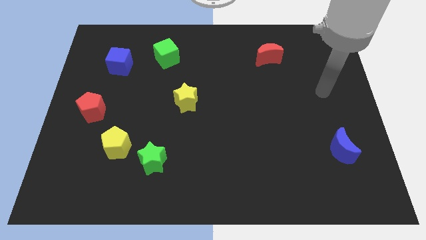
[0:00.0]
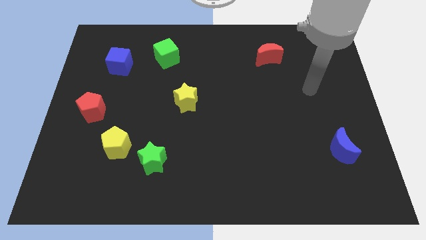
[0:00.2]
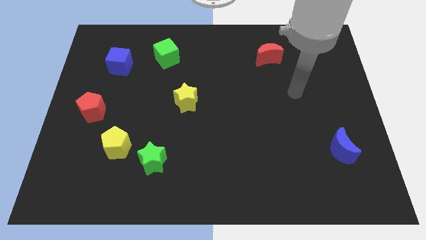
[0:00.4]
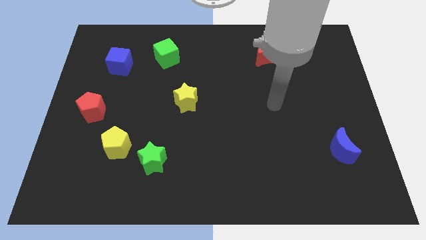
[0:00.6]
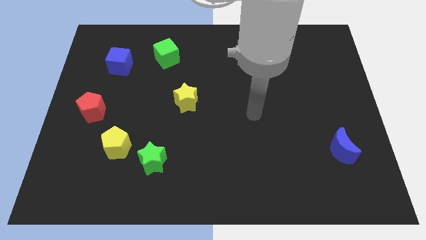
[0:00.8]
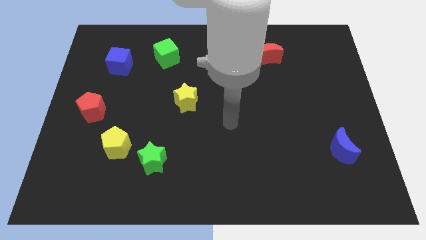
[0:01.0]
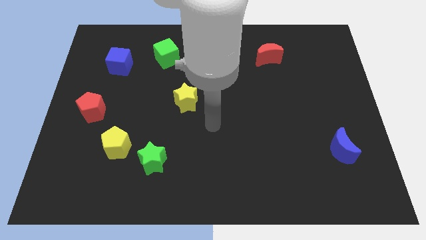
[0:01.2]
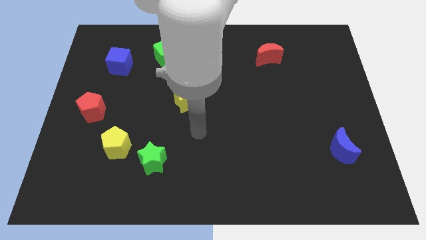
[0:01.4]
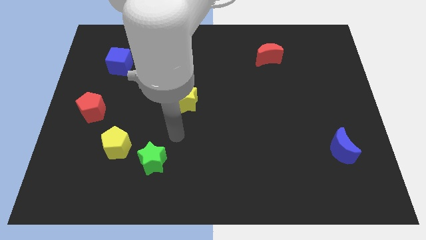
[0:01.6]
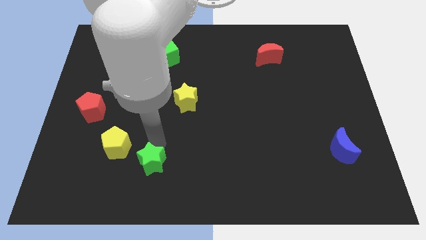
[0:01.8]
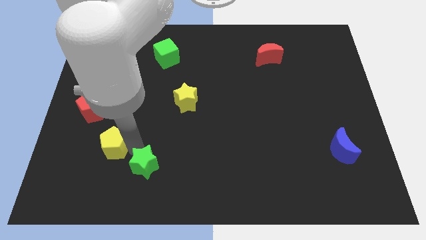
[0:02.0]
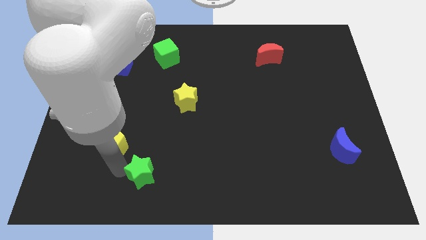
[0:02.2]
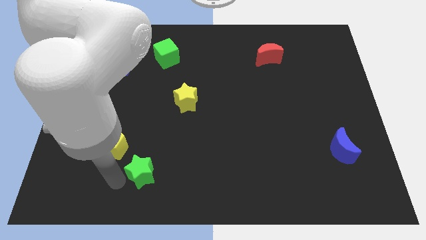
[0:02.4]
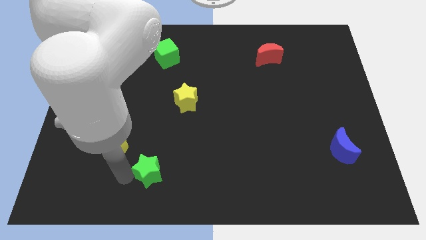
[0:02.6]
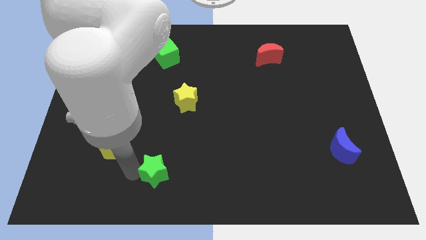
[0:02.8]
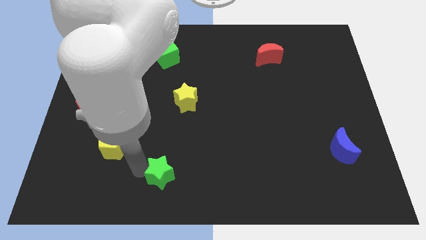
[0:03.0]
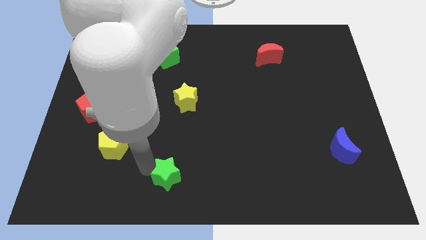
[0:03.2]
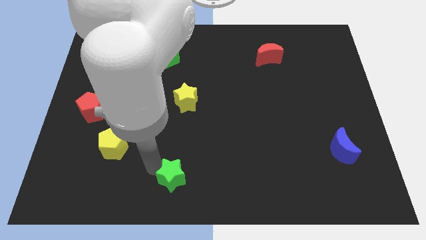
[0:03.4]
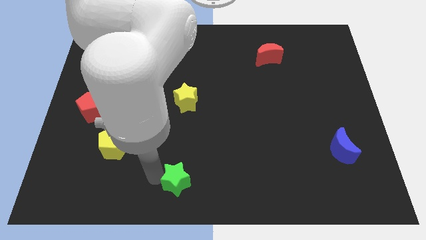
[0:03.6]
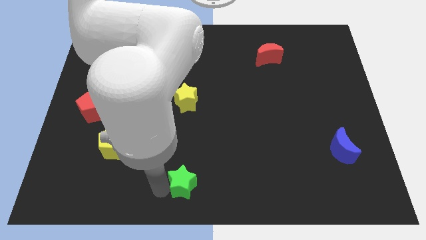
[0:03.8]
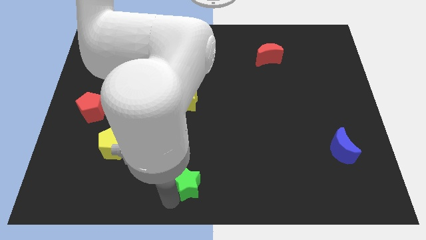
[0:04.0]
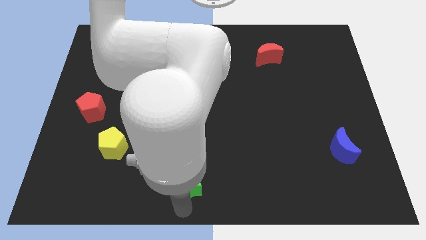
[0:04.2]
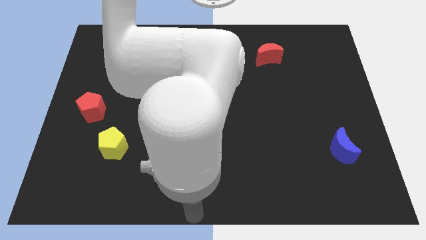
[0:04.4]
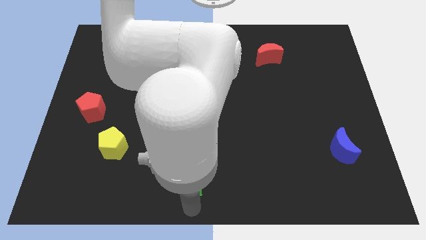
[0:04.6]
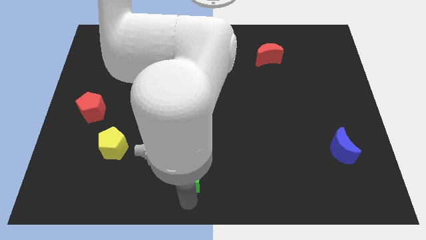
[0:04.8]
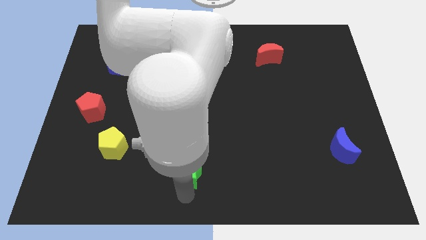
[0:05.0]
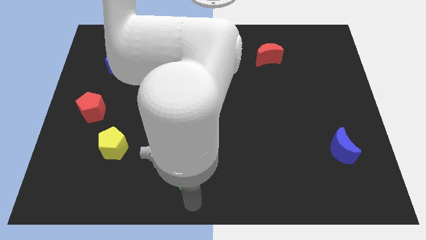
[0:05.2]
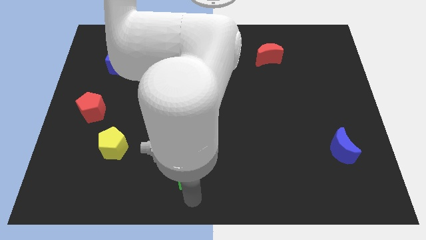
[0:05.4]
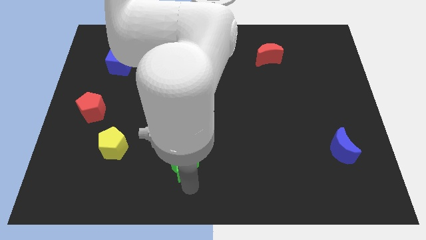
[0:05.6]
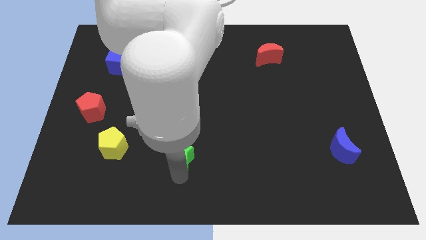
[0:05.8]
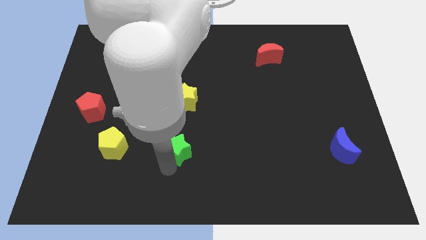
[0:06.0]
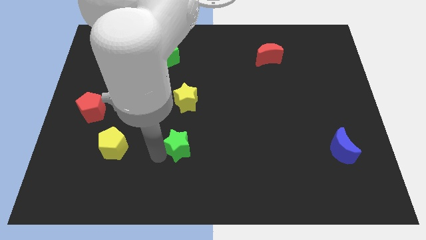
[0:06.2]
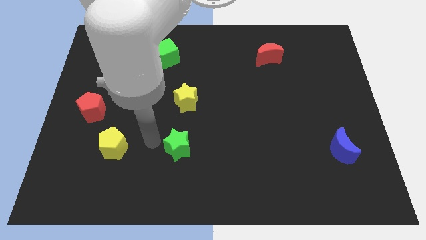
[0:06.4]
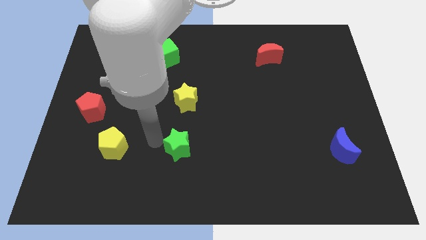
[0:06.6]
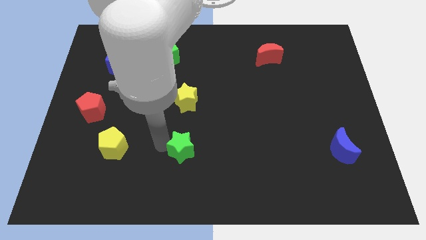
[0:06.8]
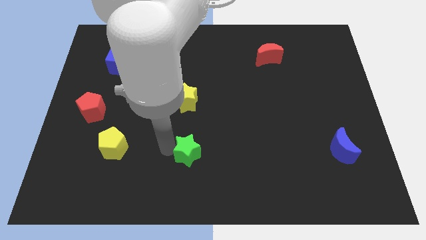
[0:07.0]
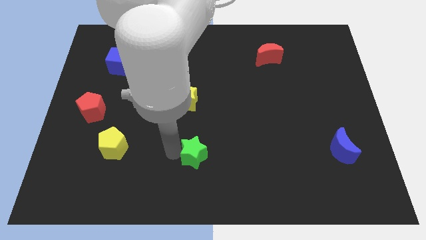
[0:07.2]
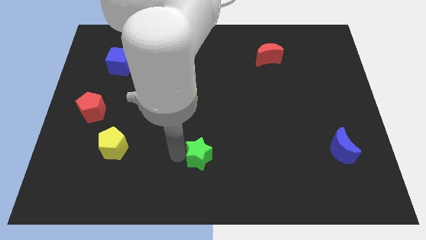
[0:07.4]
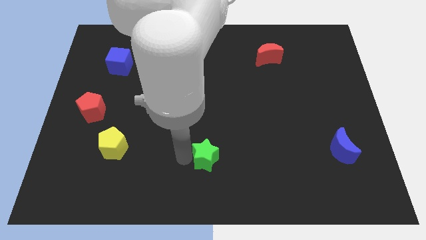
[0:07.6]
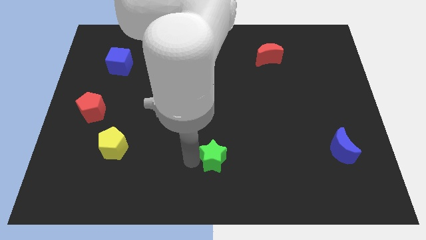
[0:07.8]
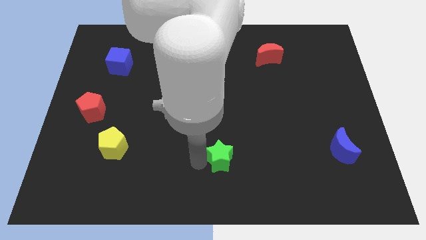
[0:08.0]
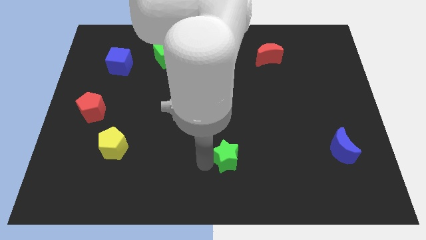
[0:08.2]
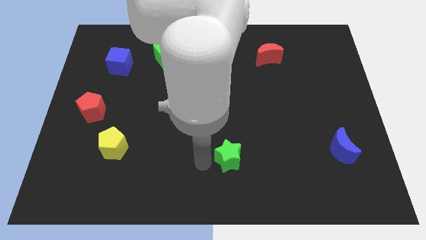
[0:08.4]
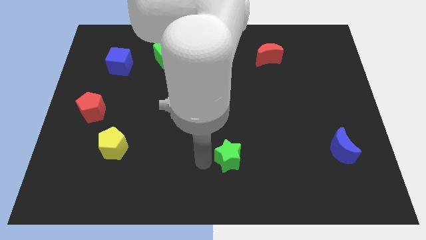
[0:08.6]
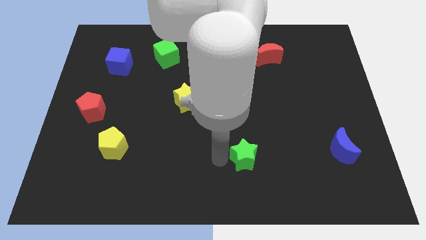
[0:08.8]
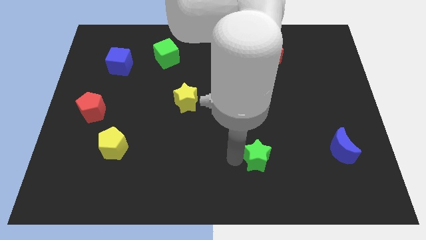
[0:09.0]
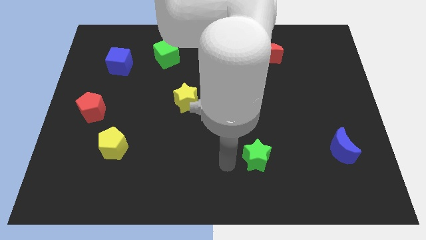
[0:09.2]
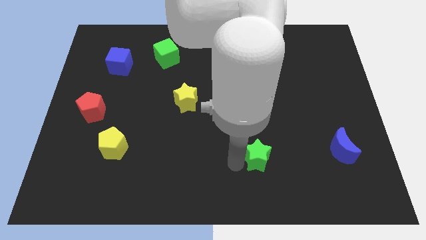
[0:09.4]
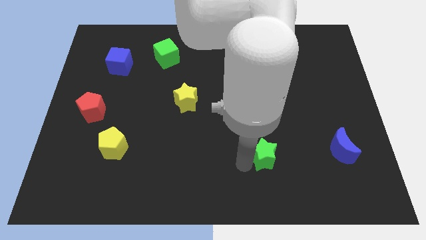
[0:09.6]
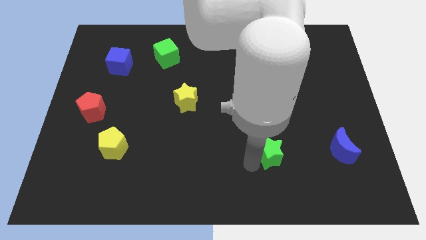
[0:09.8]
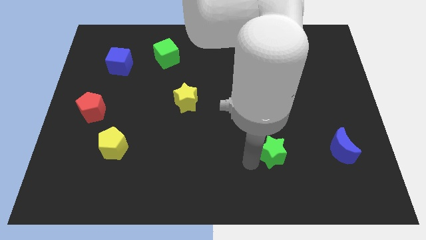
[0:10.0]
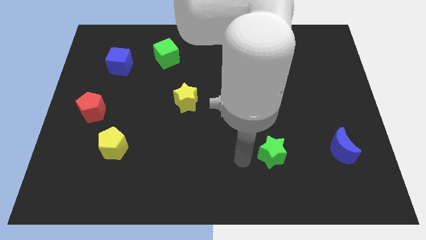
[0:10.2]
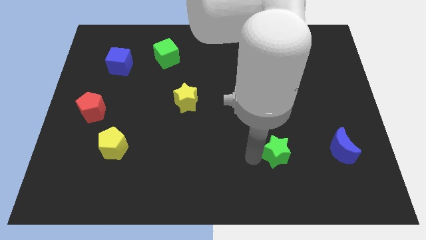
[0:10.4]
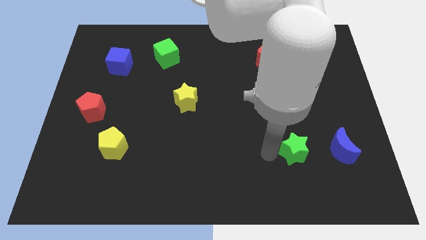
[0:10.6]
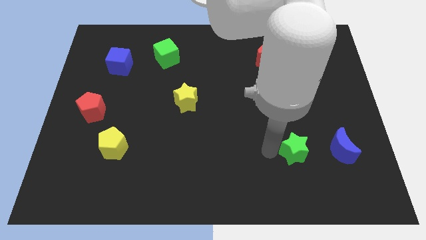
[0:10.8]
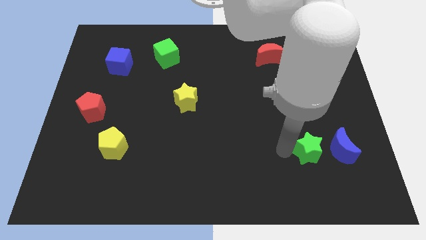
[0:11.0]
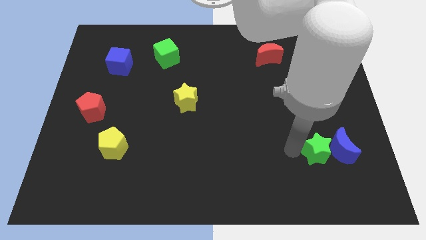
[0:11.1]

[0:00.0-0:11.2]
move the green star towards the blue moon

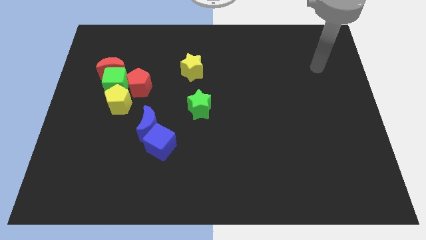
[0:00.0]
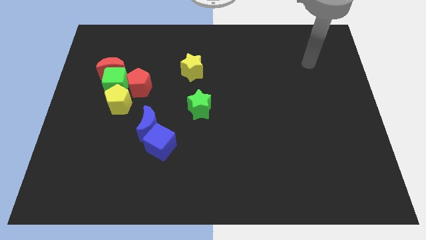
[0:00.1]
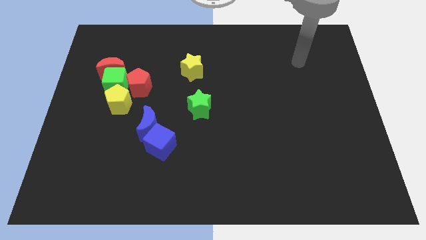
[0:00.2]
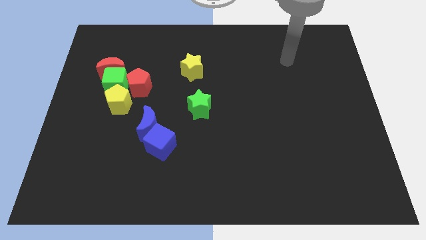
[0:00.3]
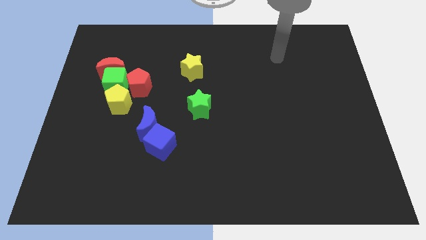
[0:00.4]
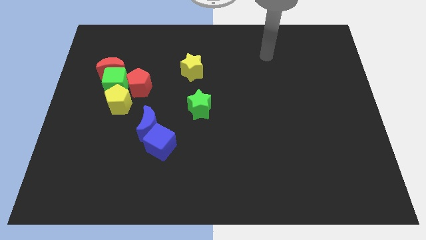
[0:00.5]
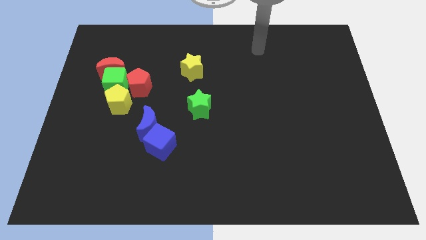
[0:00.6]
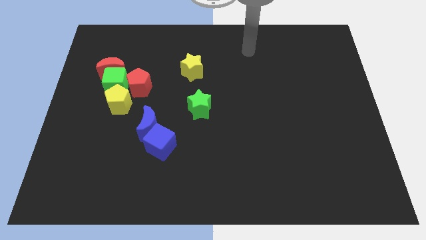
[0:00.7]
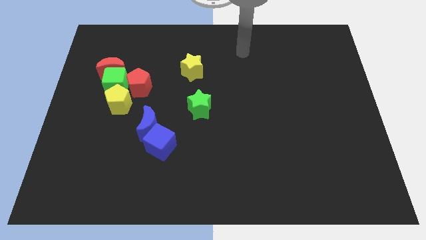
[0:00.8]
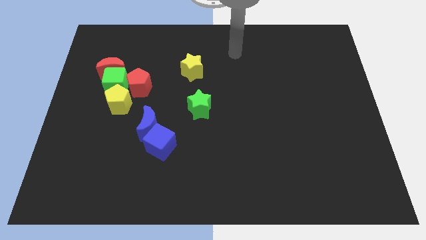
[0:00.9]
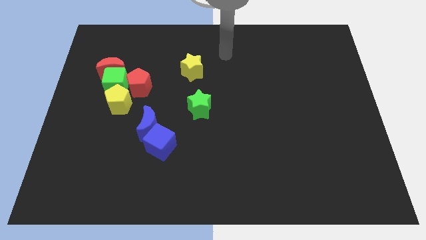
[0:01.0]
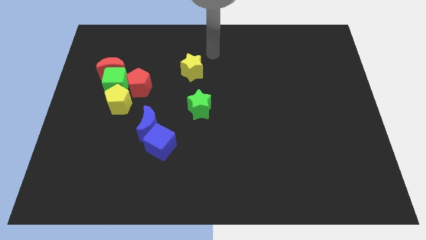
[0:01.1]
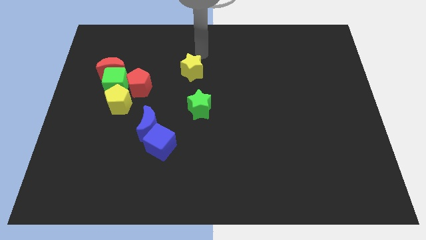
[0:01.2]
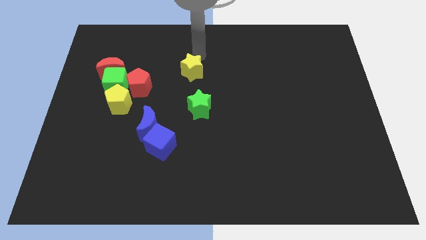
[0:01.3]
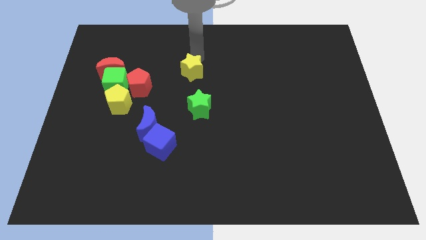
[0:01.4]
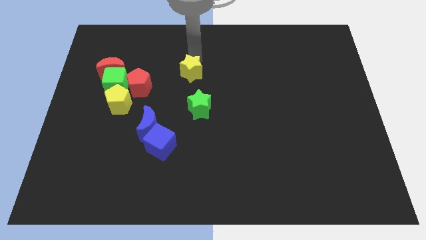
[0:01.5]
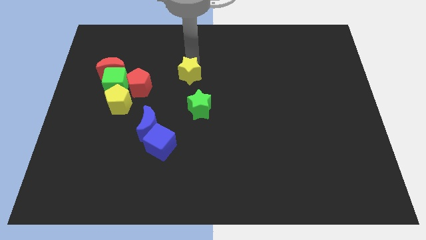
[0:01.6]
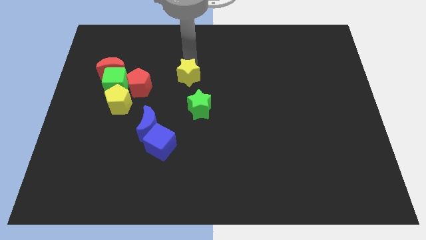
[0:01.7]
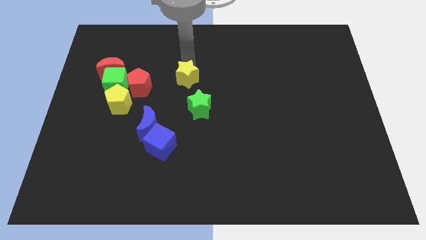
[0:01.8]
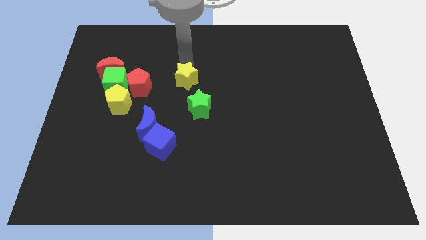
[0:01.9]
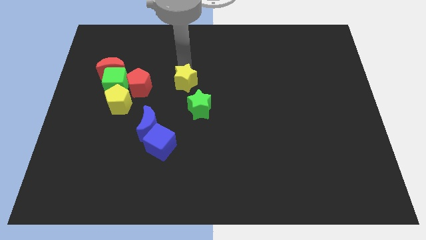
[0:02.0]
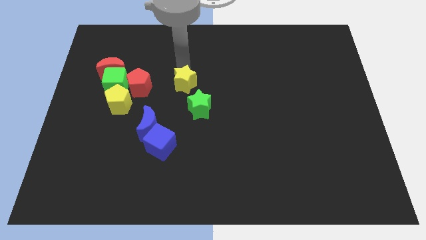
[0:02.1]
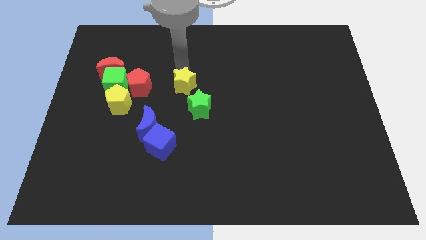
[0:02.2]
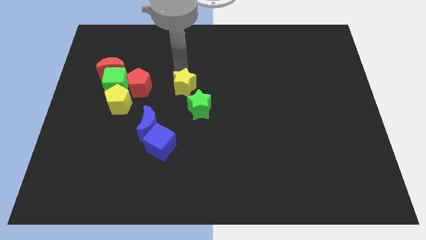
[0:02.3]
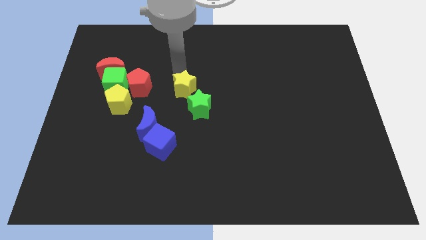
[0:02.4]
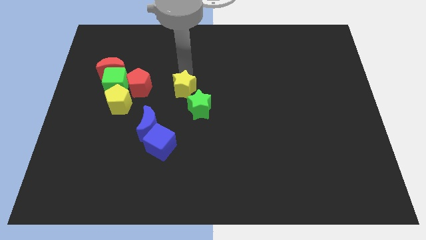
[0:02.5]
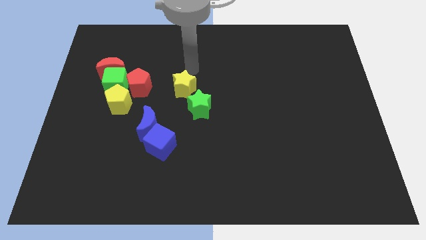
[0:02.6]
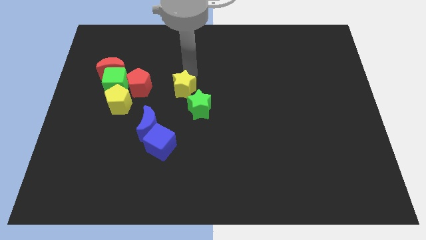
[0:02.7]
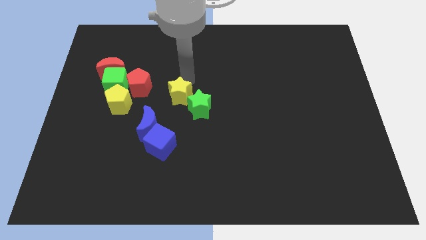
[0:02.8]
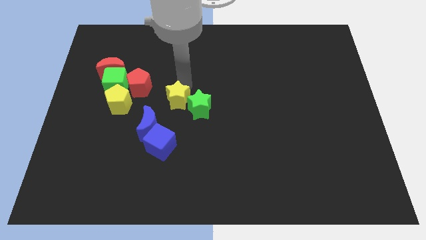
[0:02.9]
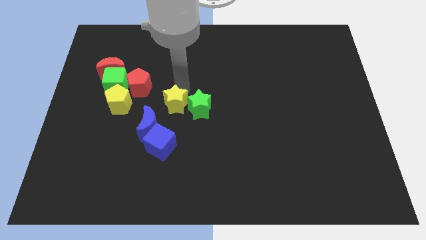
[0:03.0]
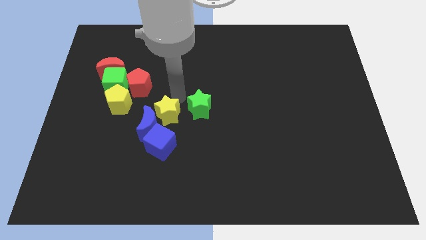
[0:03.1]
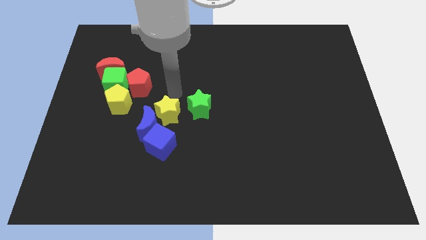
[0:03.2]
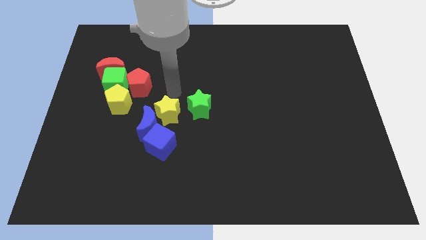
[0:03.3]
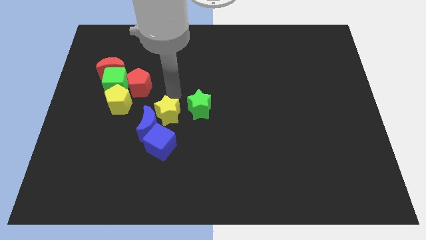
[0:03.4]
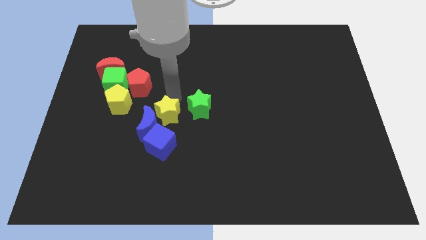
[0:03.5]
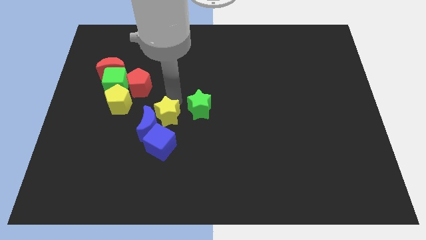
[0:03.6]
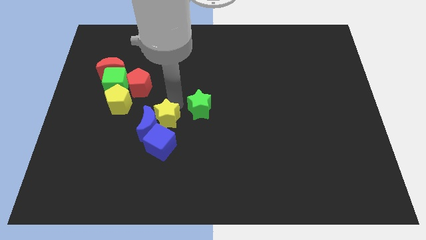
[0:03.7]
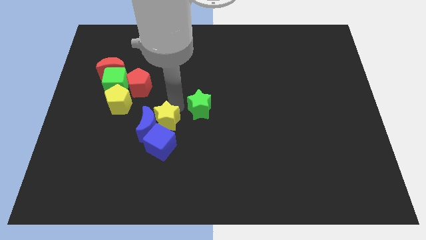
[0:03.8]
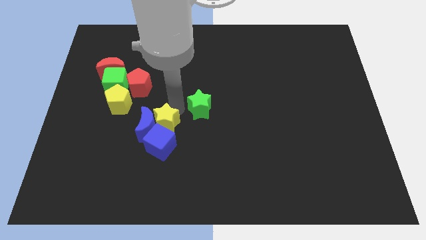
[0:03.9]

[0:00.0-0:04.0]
move the yellow star close to the blue cube
